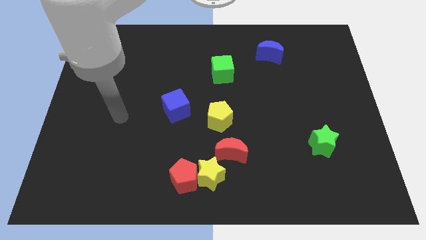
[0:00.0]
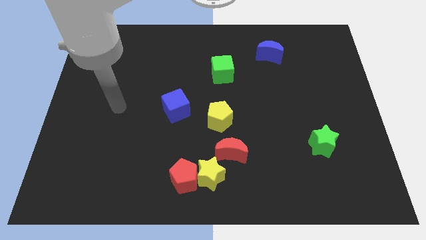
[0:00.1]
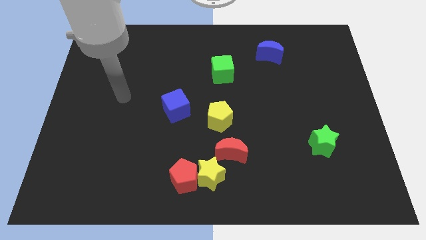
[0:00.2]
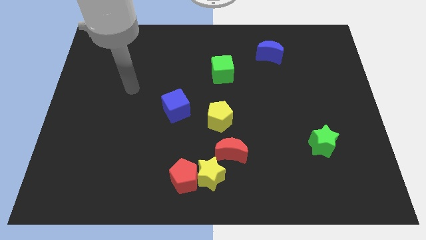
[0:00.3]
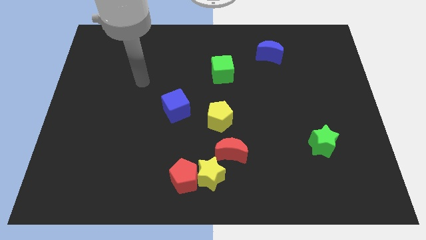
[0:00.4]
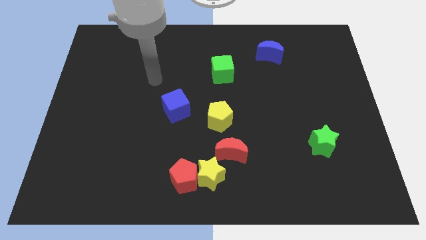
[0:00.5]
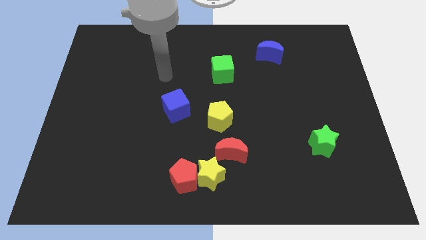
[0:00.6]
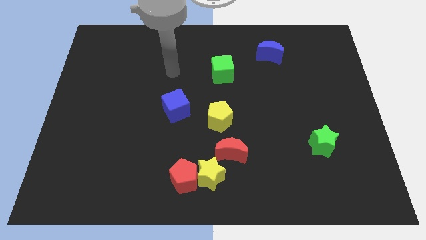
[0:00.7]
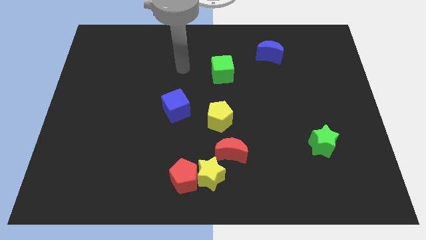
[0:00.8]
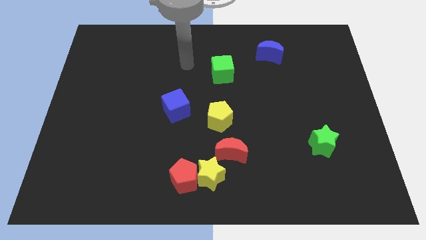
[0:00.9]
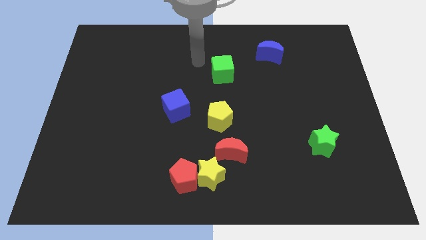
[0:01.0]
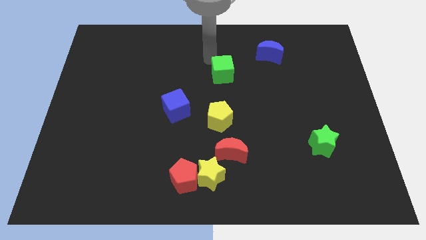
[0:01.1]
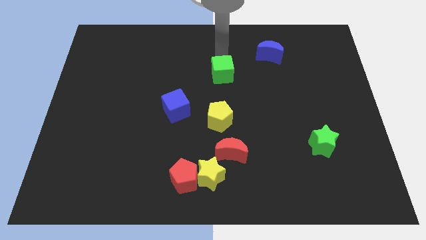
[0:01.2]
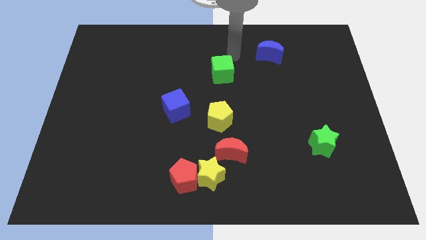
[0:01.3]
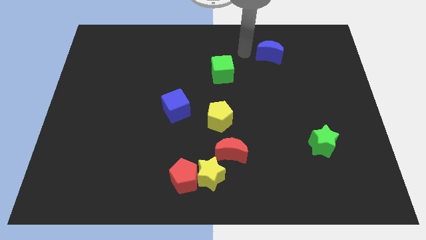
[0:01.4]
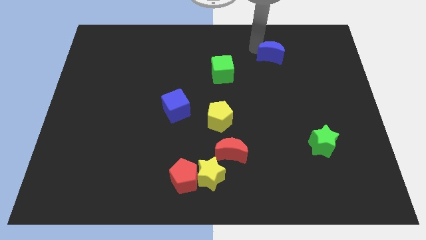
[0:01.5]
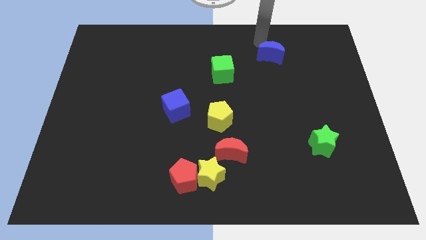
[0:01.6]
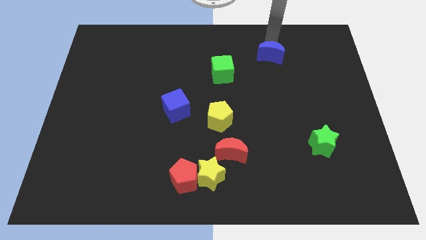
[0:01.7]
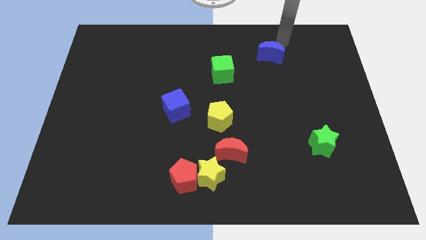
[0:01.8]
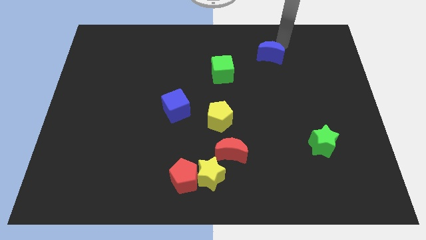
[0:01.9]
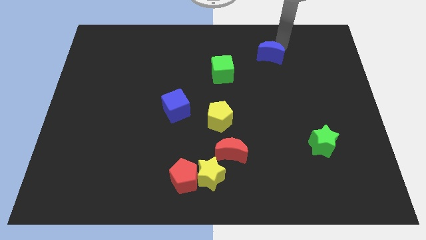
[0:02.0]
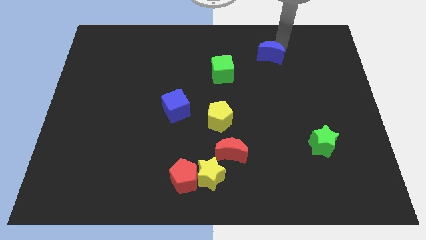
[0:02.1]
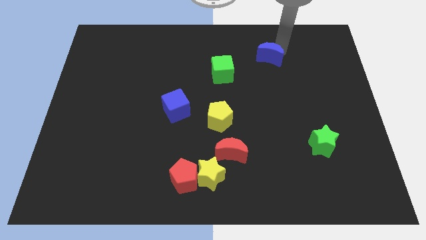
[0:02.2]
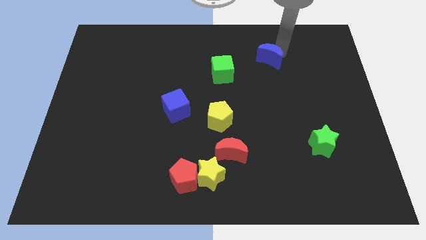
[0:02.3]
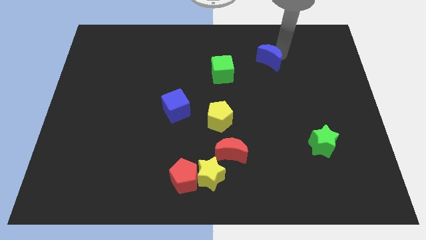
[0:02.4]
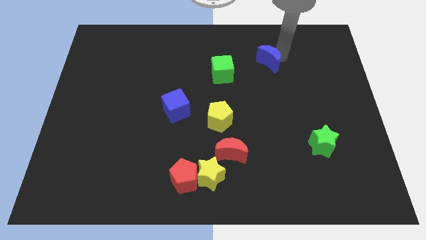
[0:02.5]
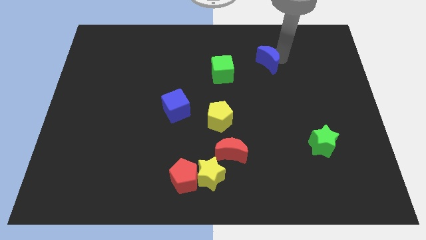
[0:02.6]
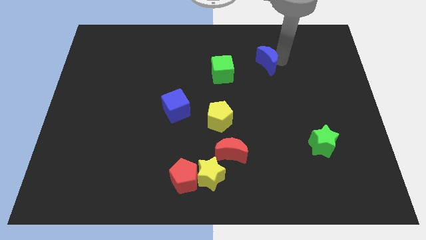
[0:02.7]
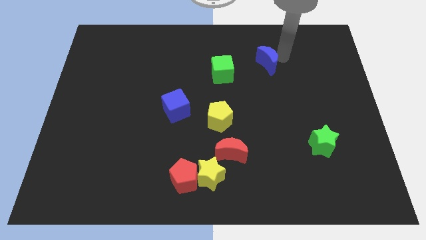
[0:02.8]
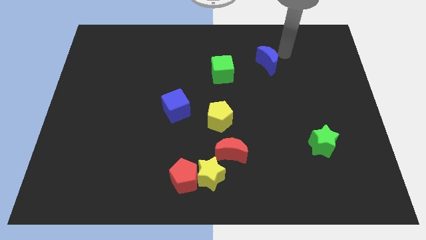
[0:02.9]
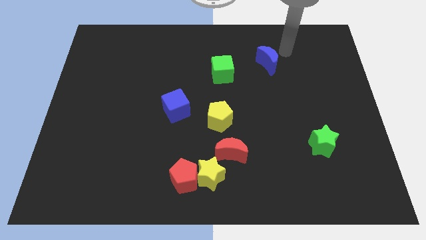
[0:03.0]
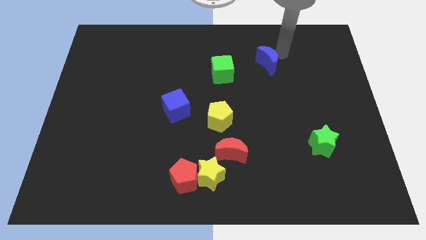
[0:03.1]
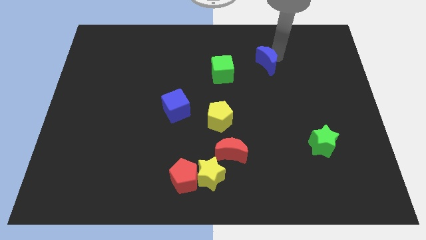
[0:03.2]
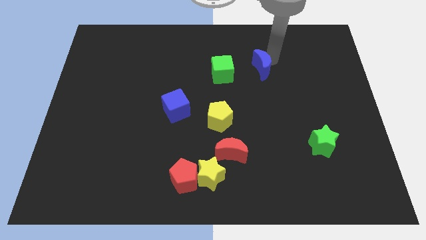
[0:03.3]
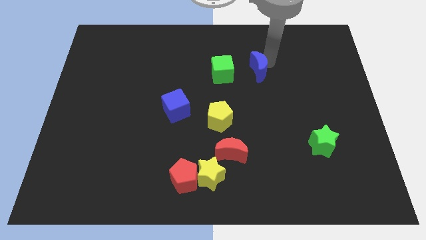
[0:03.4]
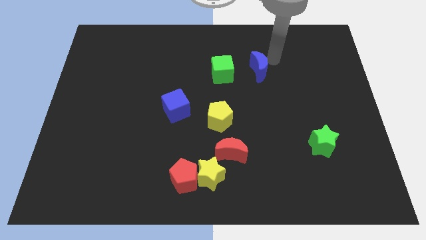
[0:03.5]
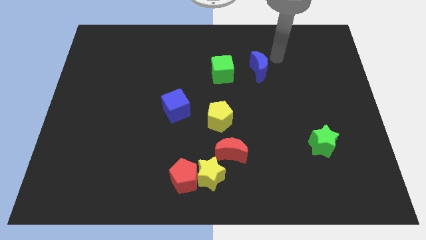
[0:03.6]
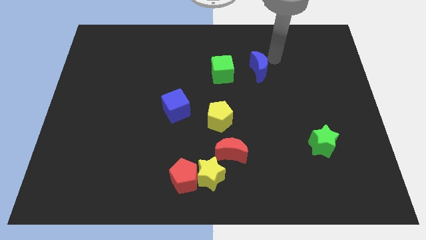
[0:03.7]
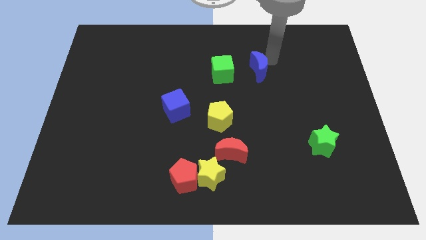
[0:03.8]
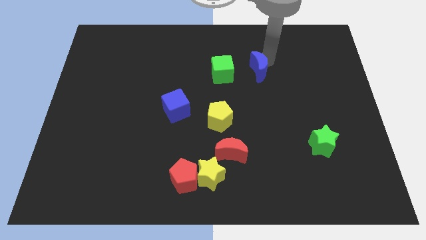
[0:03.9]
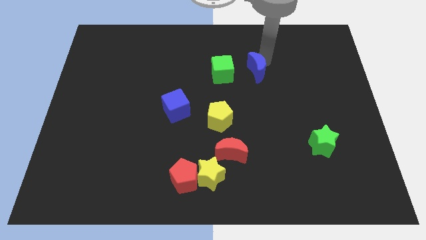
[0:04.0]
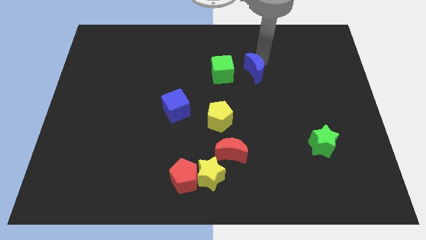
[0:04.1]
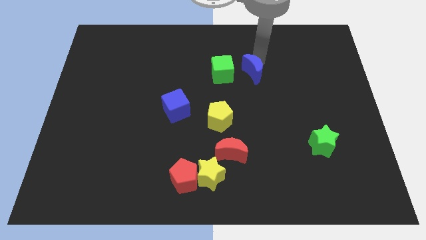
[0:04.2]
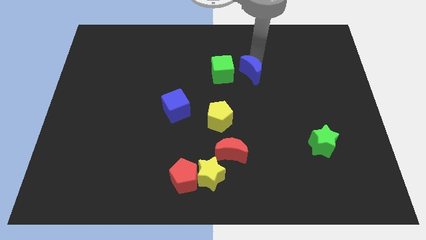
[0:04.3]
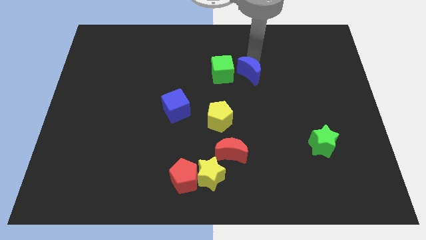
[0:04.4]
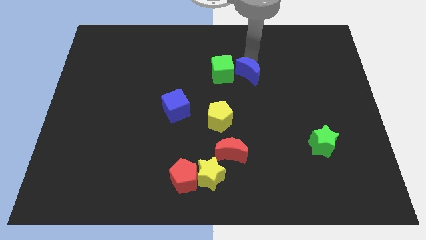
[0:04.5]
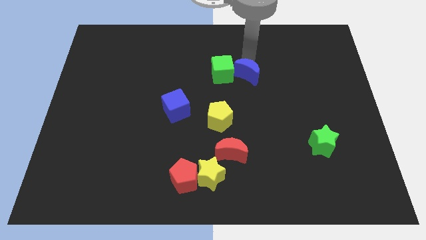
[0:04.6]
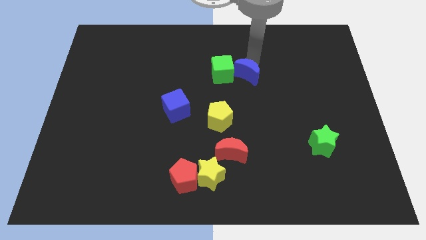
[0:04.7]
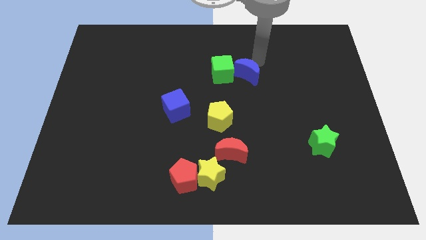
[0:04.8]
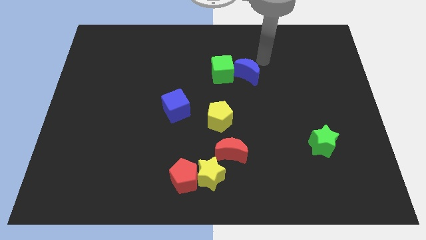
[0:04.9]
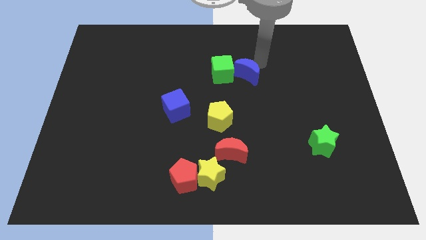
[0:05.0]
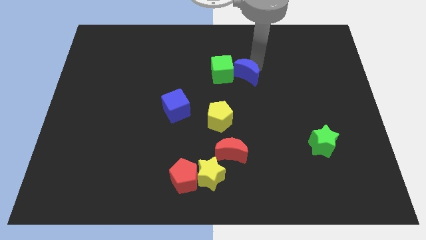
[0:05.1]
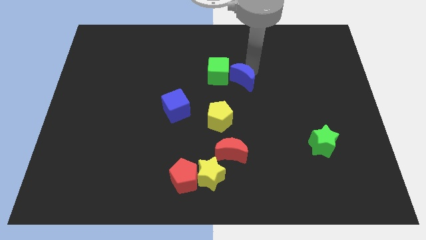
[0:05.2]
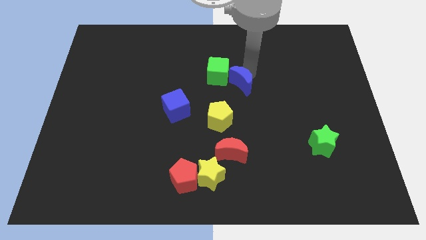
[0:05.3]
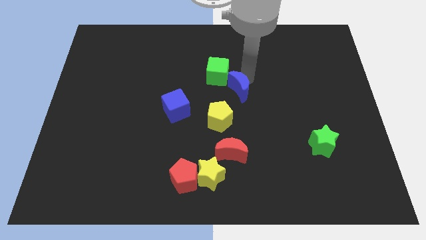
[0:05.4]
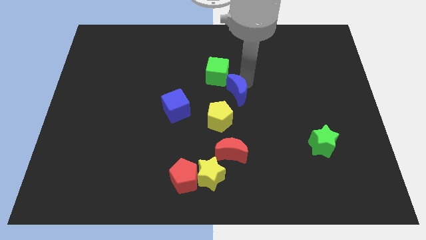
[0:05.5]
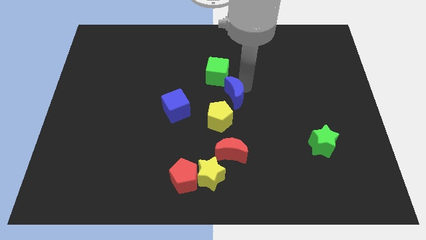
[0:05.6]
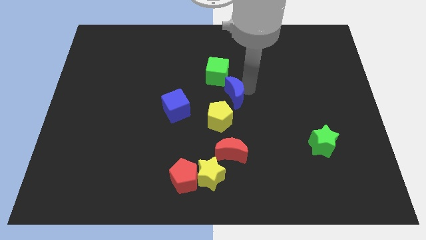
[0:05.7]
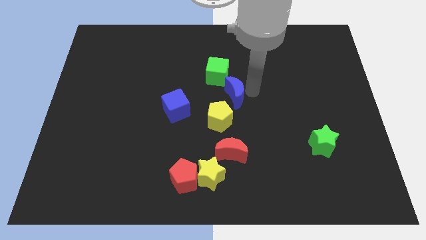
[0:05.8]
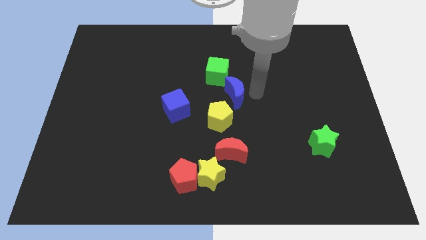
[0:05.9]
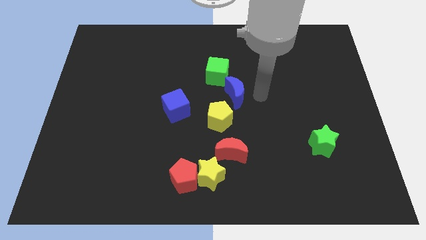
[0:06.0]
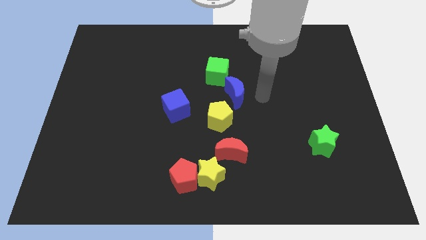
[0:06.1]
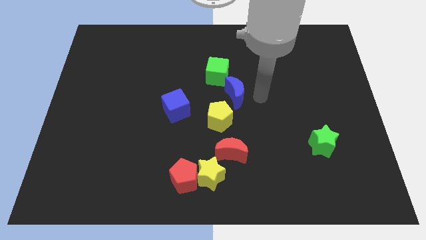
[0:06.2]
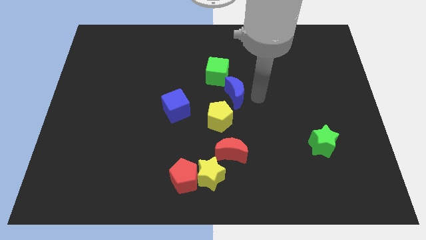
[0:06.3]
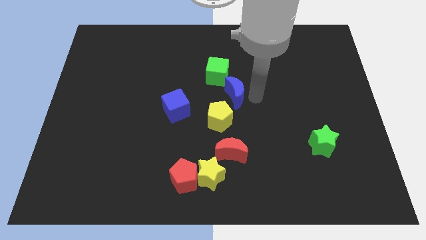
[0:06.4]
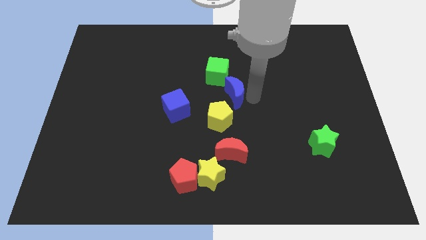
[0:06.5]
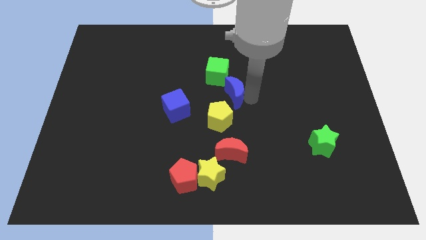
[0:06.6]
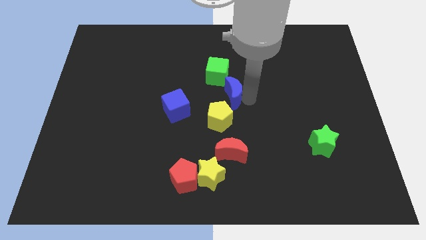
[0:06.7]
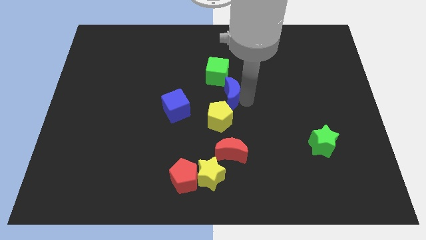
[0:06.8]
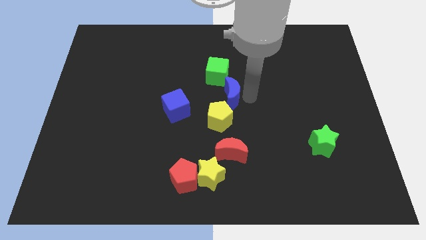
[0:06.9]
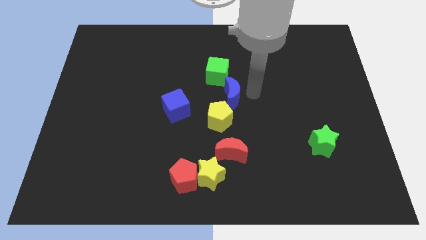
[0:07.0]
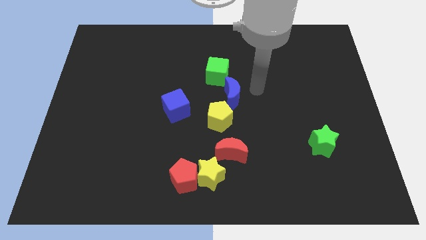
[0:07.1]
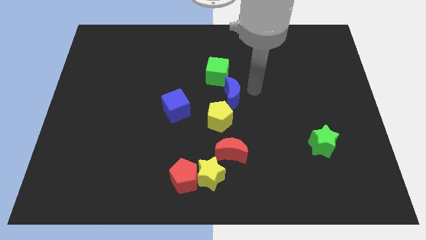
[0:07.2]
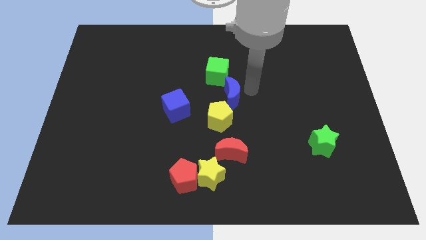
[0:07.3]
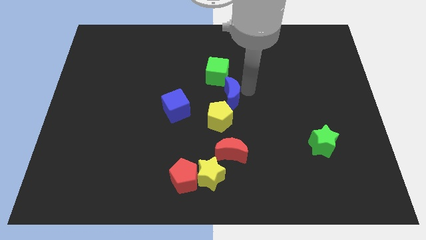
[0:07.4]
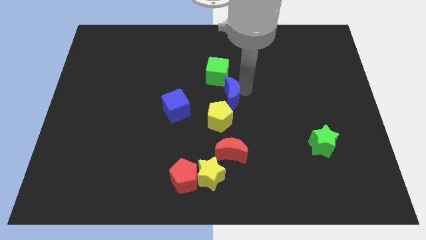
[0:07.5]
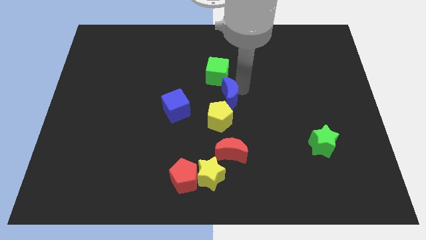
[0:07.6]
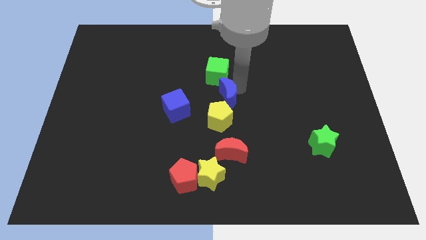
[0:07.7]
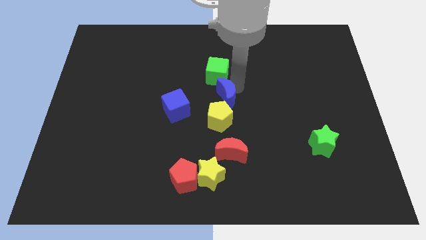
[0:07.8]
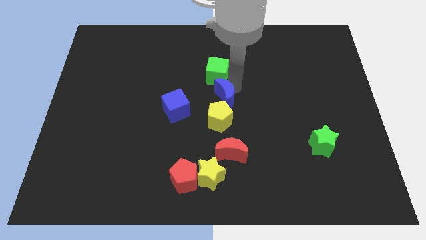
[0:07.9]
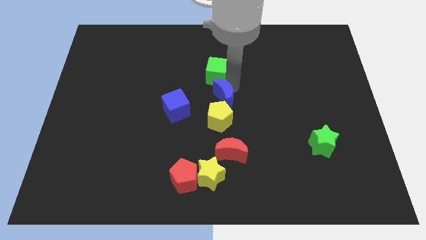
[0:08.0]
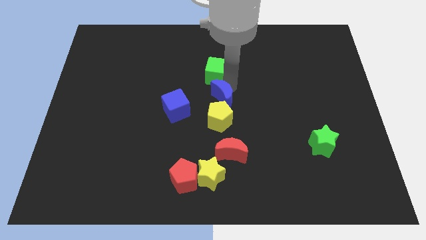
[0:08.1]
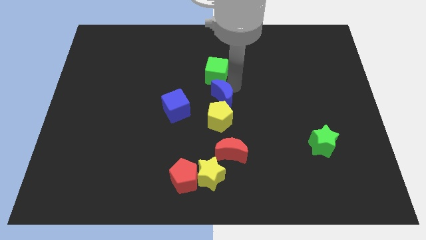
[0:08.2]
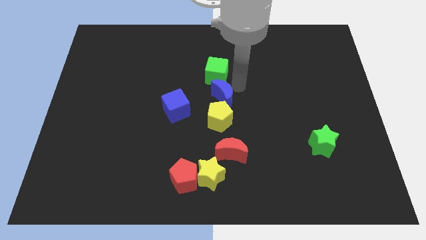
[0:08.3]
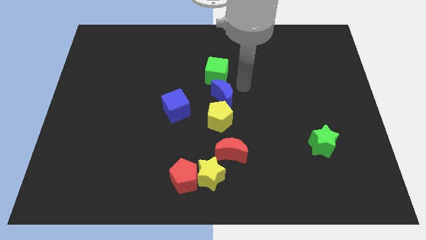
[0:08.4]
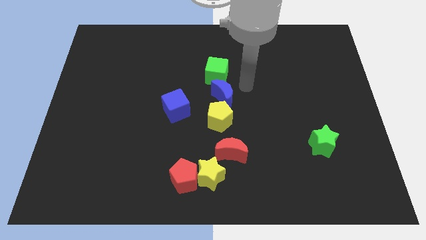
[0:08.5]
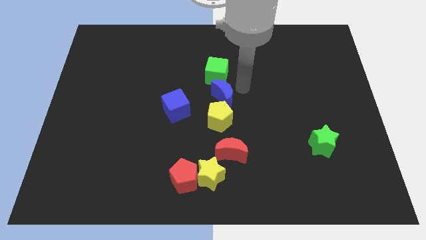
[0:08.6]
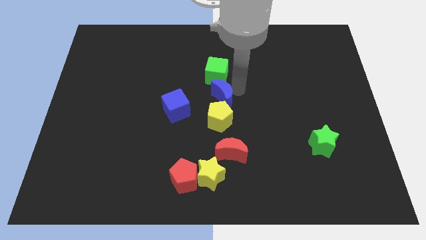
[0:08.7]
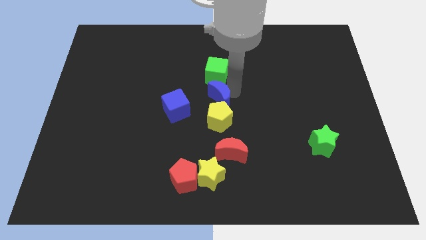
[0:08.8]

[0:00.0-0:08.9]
slide the blue moon down and then to the left
